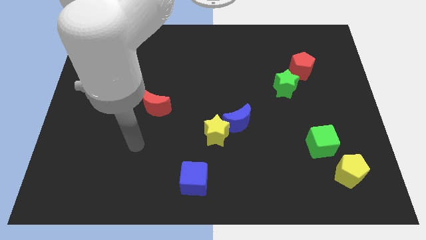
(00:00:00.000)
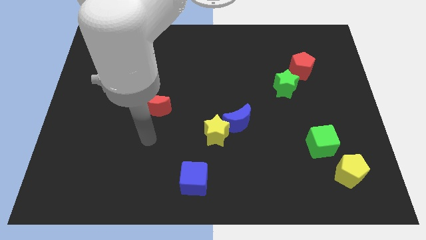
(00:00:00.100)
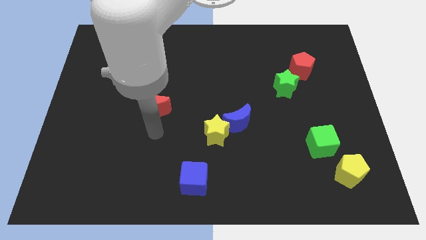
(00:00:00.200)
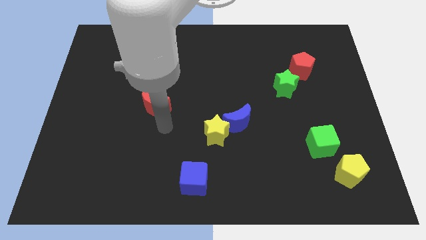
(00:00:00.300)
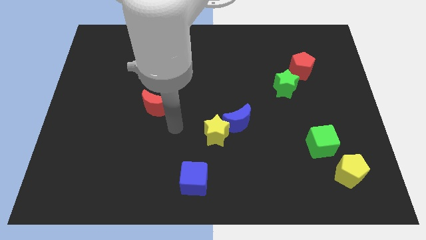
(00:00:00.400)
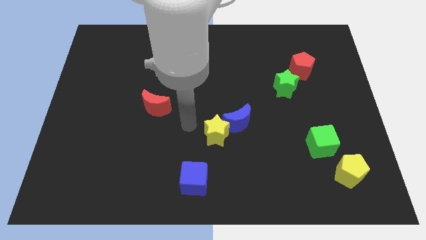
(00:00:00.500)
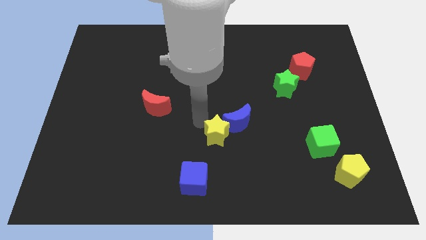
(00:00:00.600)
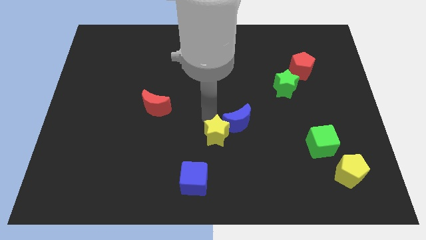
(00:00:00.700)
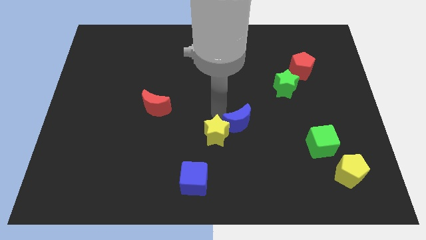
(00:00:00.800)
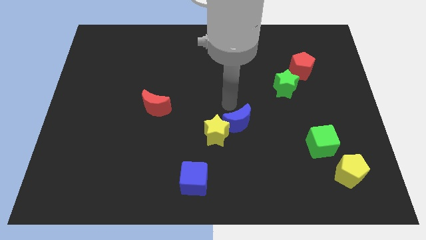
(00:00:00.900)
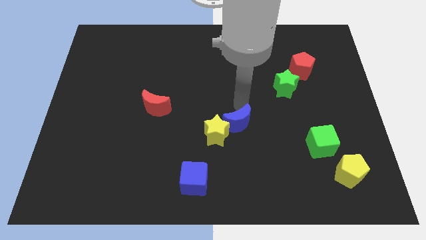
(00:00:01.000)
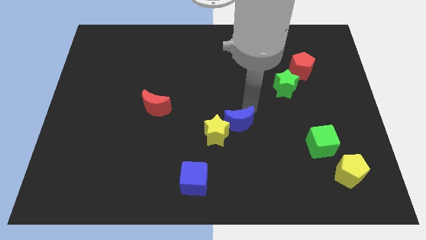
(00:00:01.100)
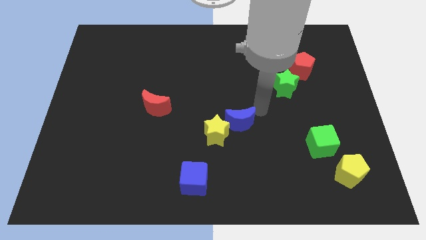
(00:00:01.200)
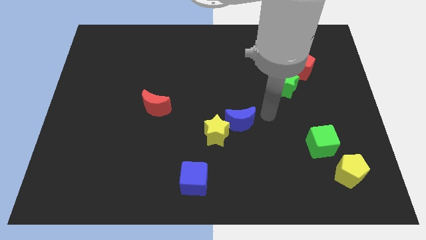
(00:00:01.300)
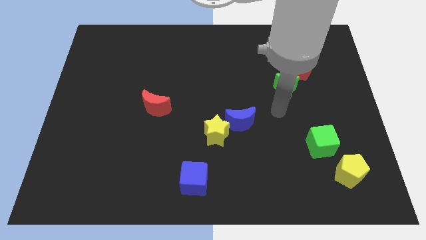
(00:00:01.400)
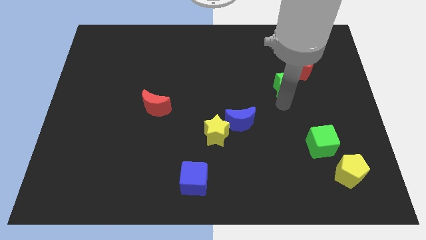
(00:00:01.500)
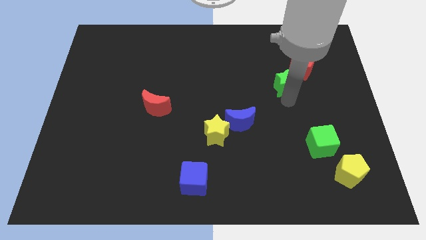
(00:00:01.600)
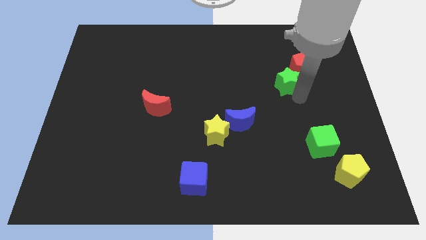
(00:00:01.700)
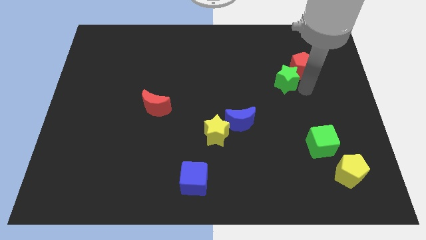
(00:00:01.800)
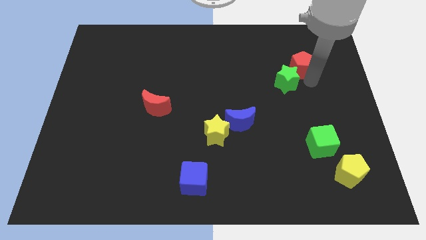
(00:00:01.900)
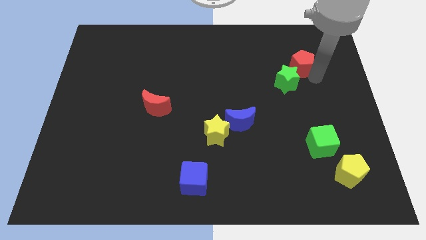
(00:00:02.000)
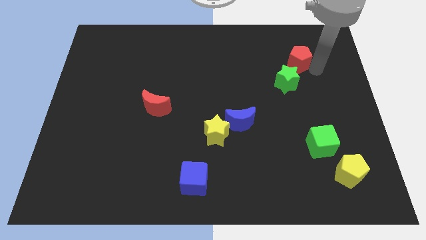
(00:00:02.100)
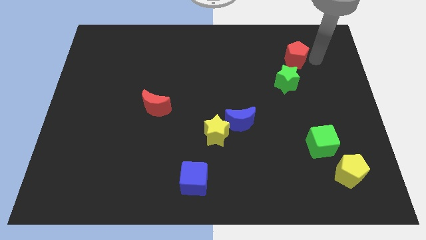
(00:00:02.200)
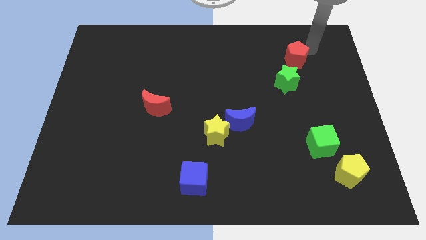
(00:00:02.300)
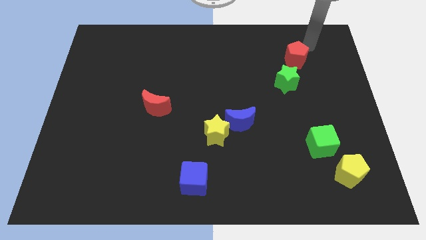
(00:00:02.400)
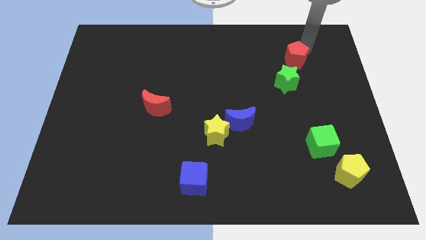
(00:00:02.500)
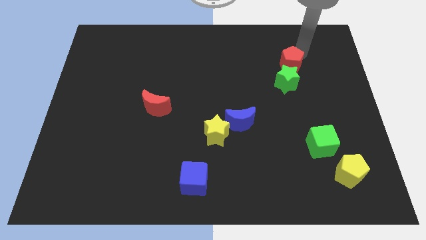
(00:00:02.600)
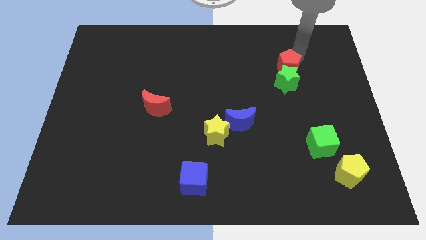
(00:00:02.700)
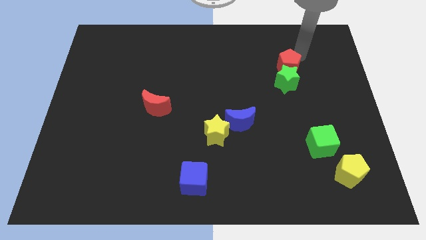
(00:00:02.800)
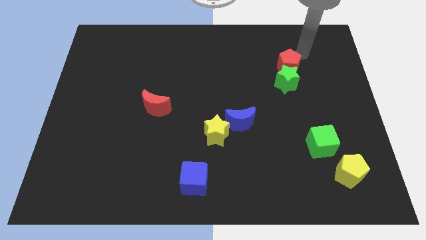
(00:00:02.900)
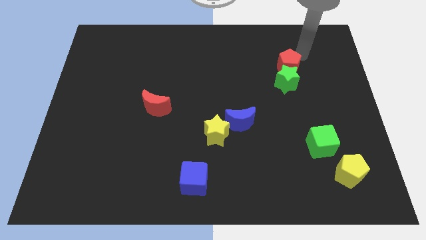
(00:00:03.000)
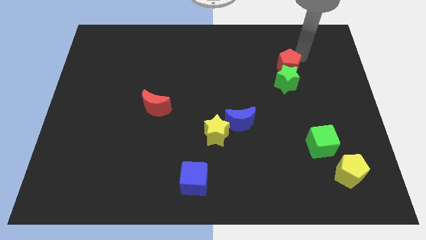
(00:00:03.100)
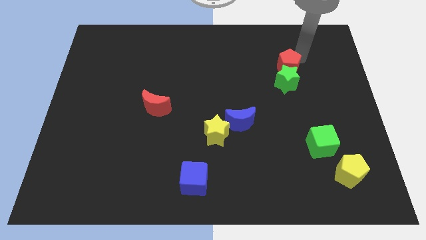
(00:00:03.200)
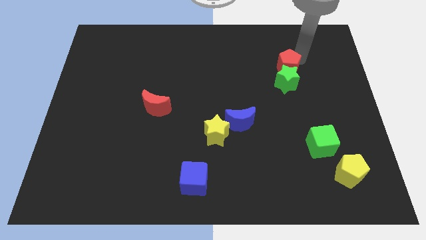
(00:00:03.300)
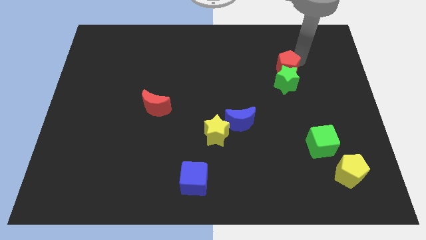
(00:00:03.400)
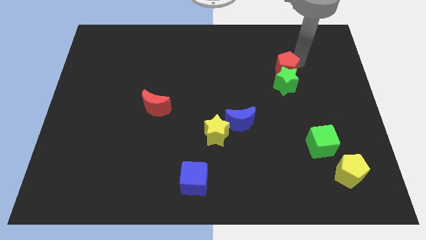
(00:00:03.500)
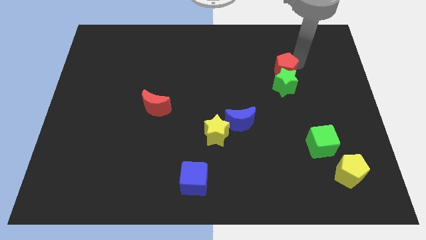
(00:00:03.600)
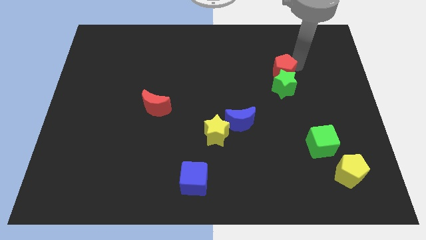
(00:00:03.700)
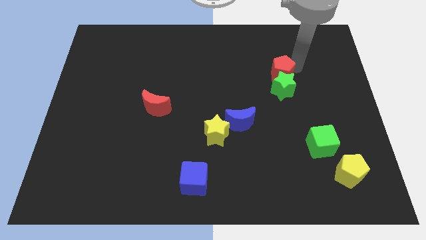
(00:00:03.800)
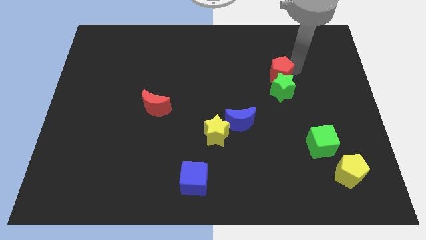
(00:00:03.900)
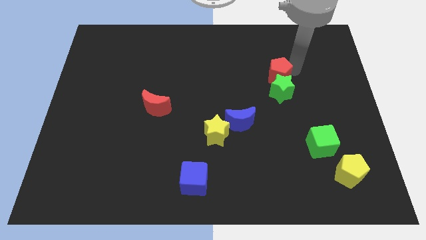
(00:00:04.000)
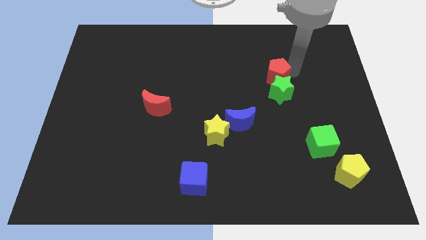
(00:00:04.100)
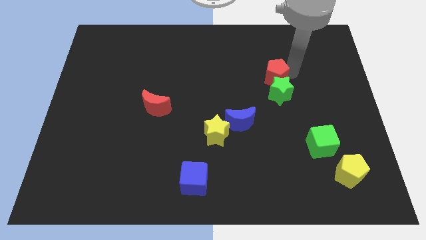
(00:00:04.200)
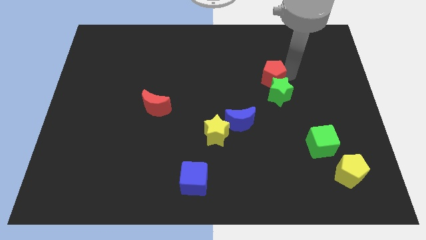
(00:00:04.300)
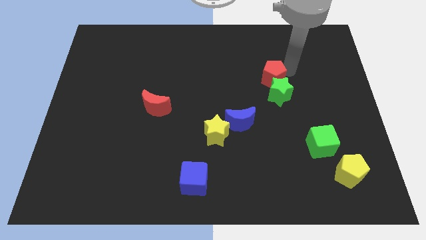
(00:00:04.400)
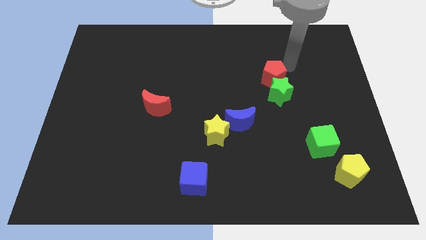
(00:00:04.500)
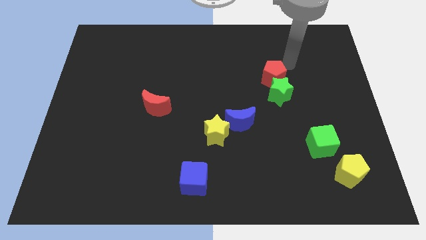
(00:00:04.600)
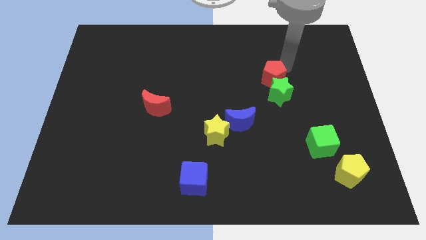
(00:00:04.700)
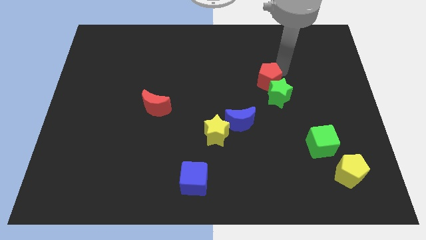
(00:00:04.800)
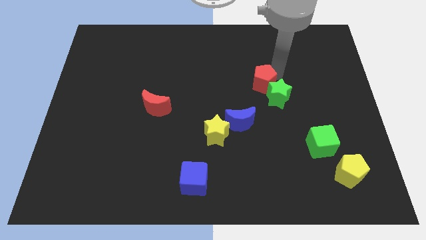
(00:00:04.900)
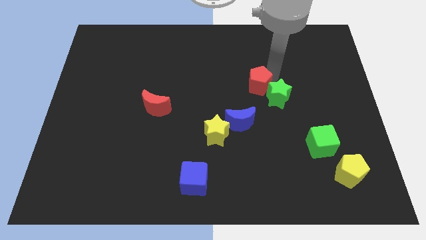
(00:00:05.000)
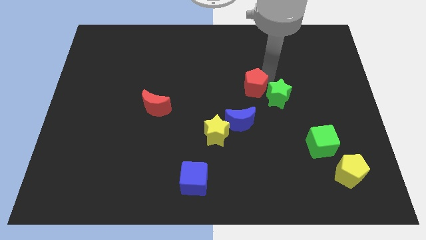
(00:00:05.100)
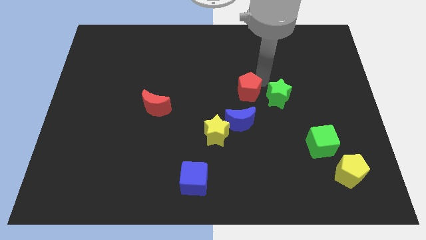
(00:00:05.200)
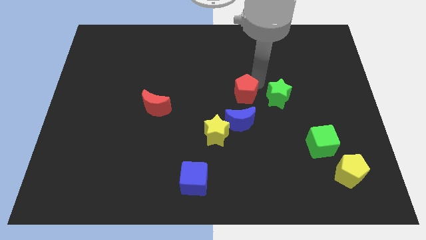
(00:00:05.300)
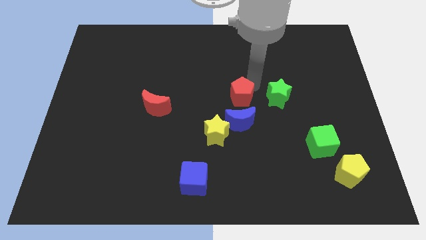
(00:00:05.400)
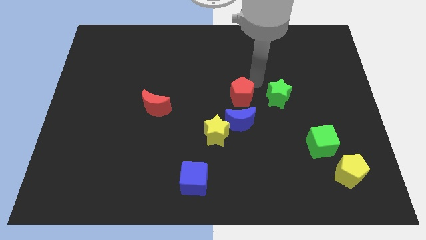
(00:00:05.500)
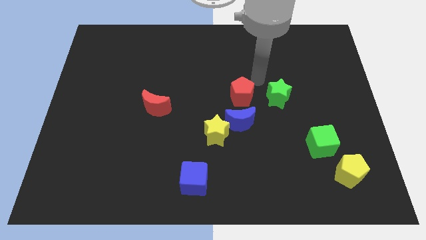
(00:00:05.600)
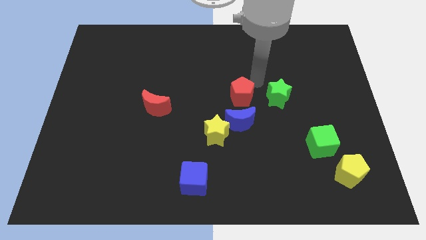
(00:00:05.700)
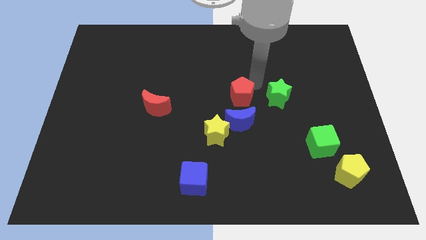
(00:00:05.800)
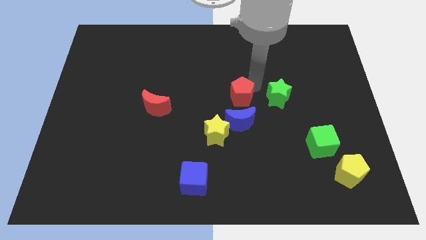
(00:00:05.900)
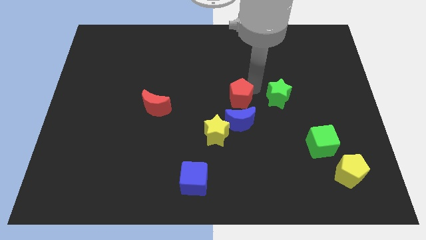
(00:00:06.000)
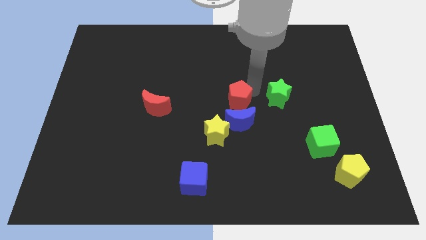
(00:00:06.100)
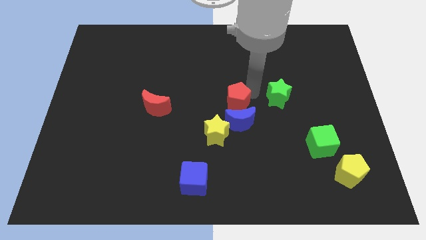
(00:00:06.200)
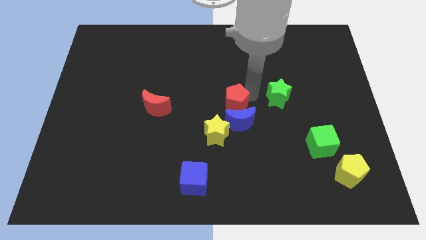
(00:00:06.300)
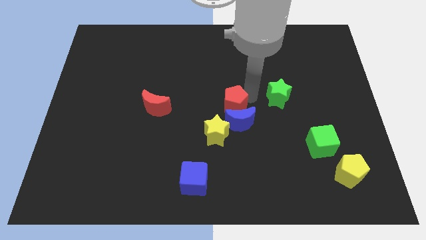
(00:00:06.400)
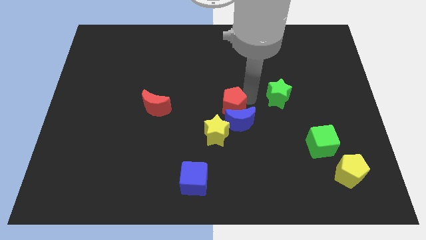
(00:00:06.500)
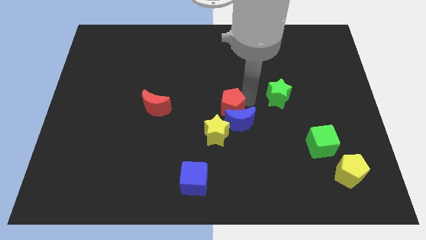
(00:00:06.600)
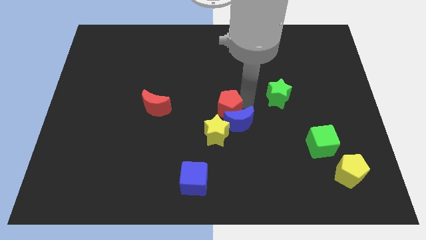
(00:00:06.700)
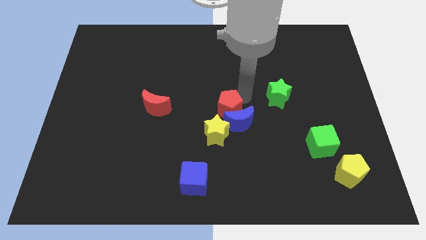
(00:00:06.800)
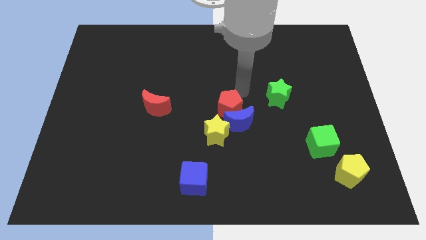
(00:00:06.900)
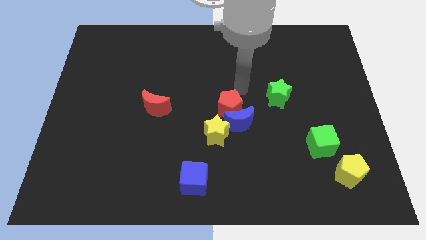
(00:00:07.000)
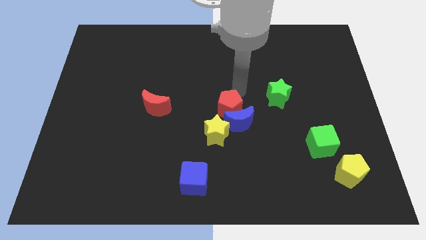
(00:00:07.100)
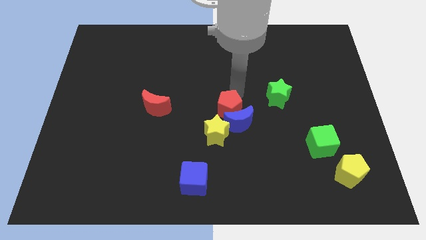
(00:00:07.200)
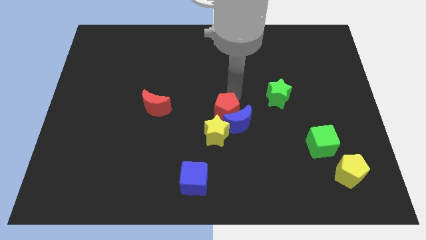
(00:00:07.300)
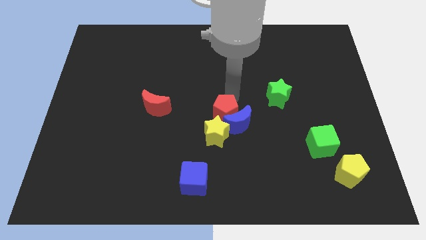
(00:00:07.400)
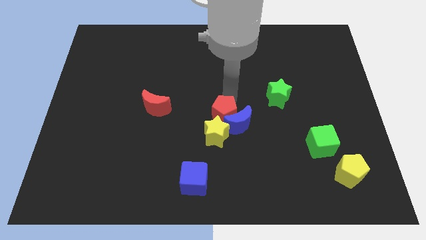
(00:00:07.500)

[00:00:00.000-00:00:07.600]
move the red pentagon towards the yellow star

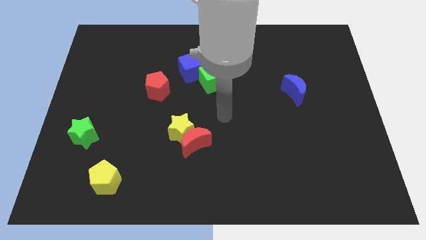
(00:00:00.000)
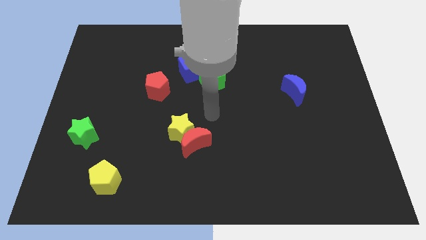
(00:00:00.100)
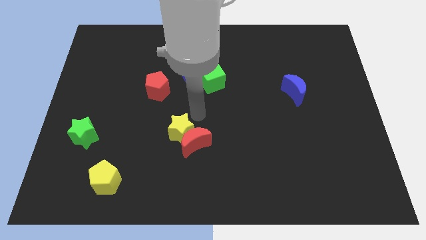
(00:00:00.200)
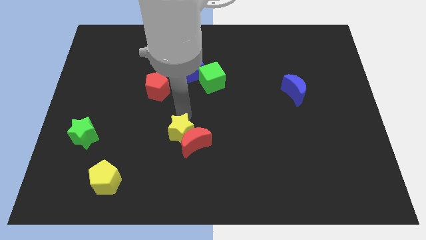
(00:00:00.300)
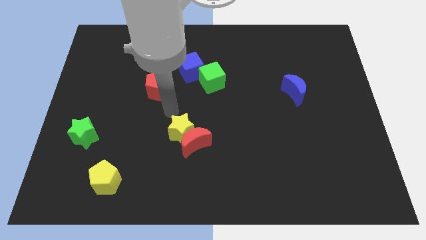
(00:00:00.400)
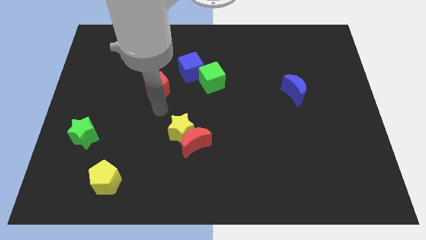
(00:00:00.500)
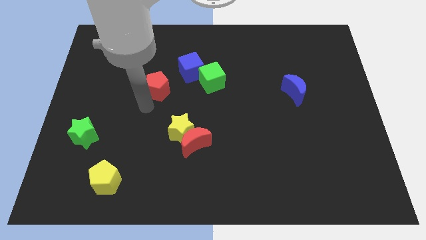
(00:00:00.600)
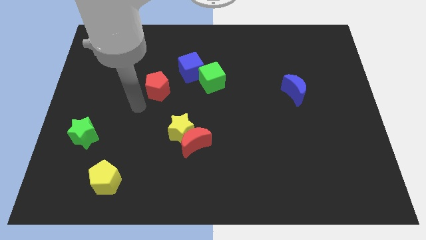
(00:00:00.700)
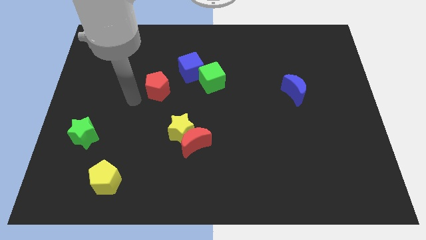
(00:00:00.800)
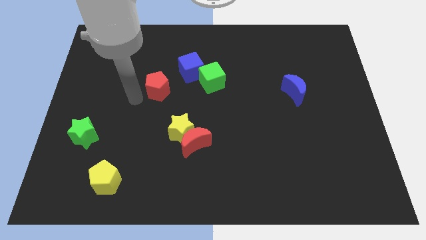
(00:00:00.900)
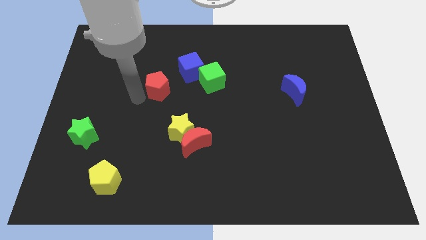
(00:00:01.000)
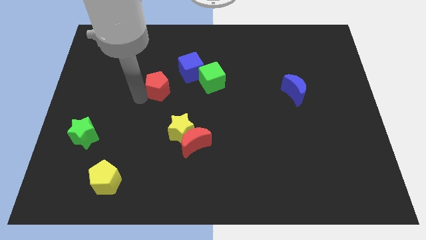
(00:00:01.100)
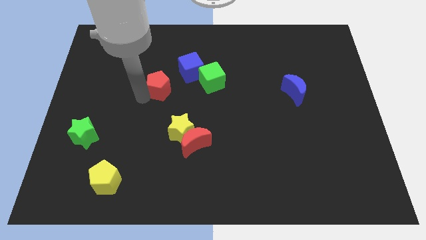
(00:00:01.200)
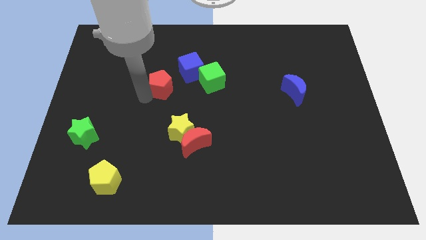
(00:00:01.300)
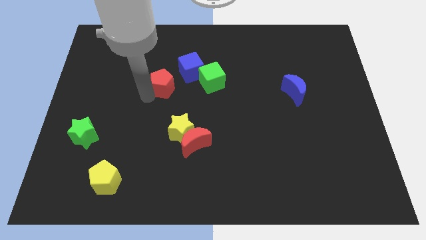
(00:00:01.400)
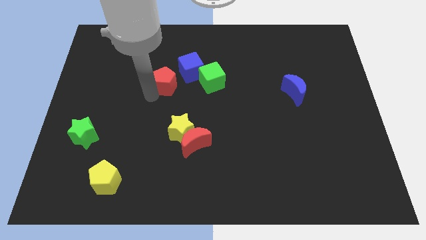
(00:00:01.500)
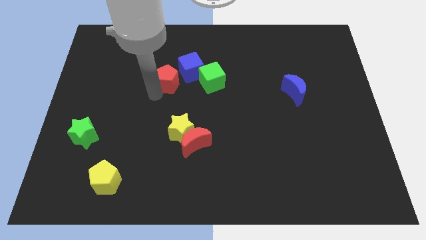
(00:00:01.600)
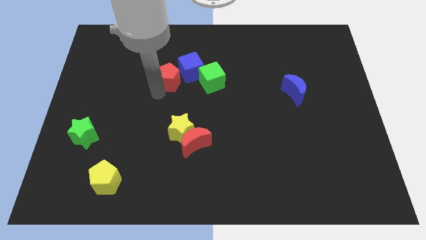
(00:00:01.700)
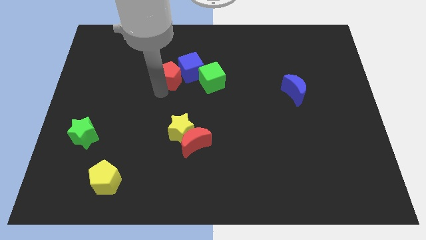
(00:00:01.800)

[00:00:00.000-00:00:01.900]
slide the red pentagon towards the blue cube
